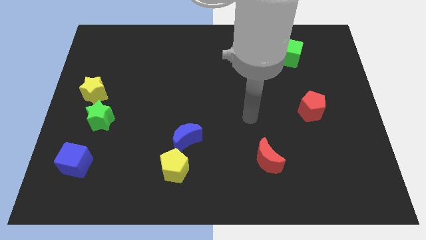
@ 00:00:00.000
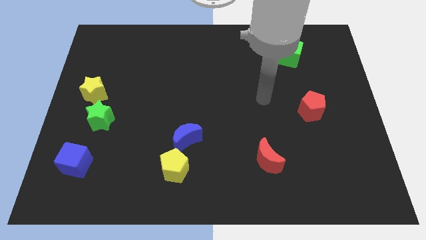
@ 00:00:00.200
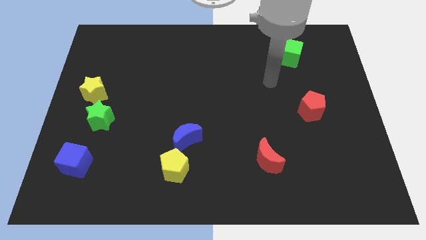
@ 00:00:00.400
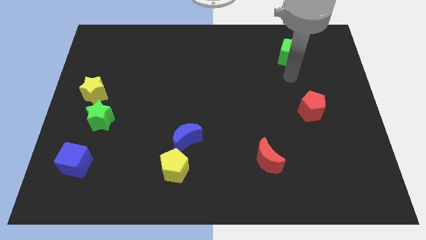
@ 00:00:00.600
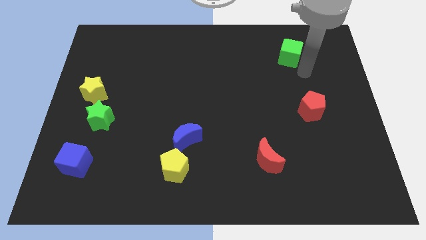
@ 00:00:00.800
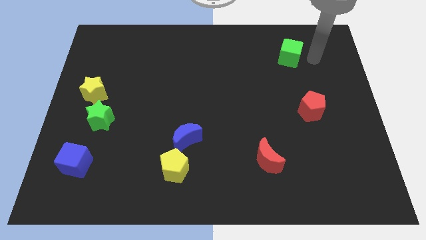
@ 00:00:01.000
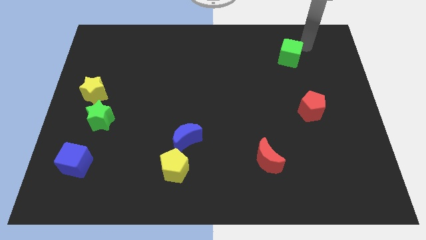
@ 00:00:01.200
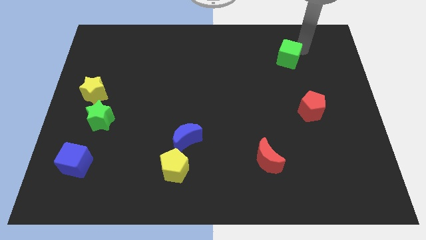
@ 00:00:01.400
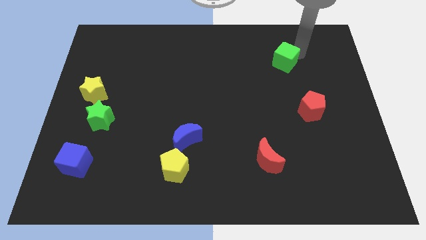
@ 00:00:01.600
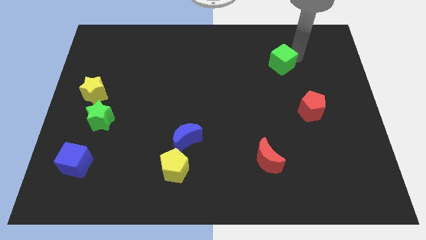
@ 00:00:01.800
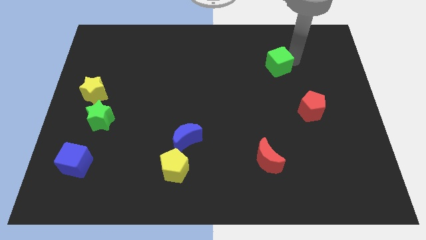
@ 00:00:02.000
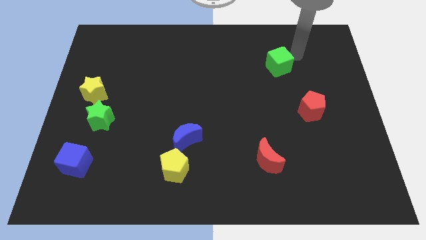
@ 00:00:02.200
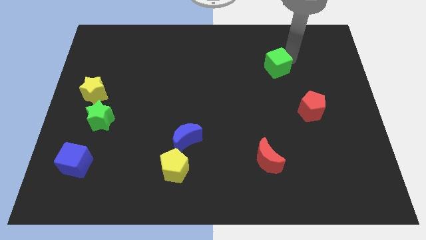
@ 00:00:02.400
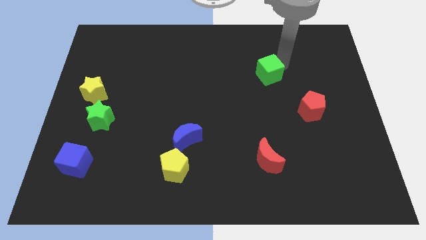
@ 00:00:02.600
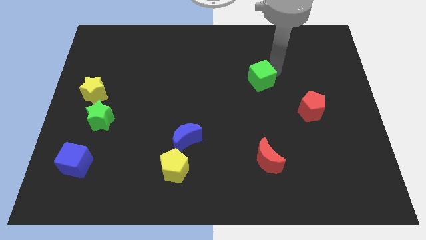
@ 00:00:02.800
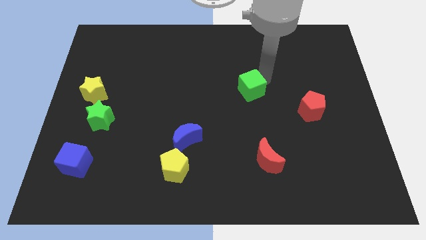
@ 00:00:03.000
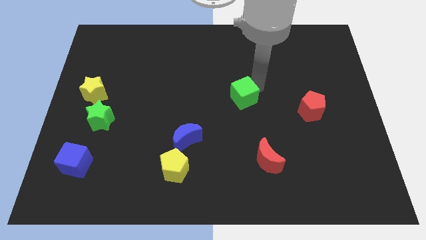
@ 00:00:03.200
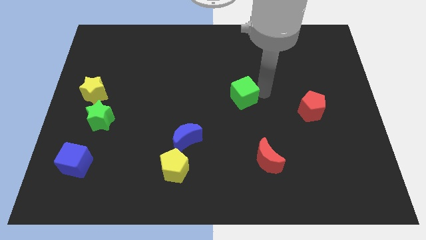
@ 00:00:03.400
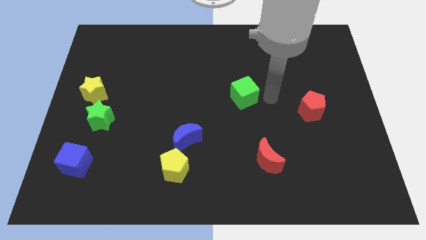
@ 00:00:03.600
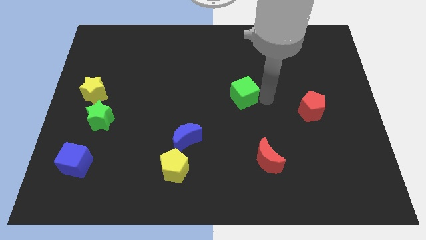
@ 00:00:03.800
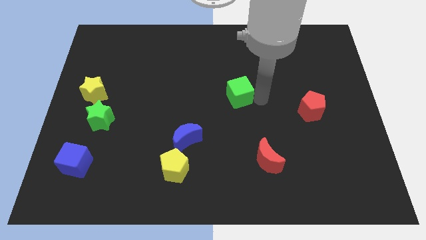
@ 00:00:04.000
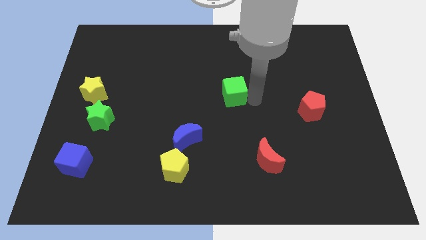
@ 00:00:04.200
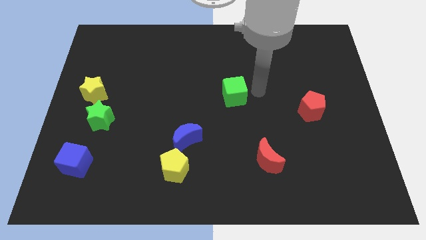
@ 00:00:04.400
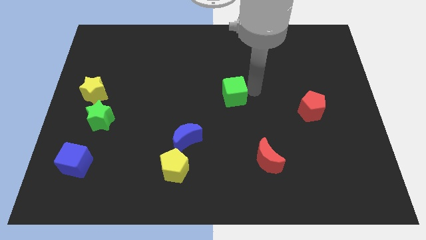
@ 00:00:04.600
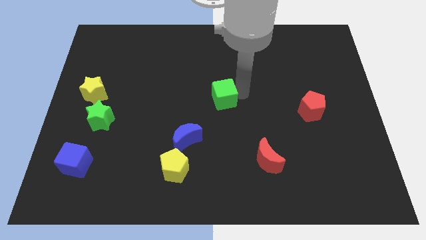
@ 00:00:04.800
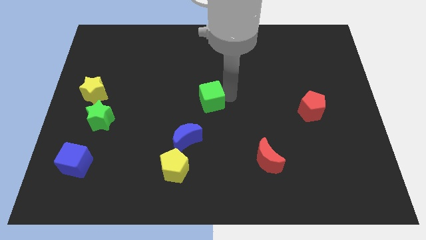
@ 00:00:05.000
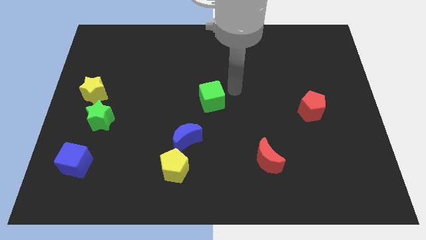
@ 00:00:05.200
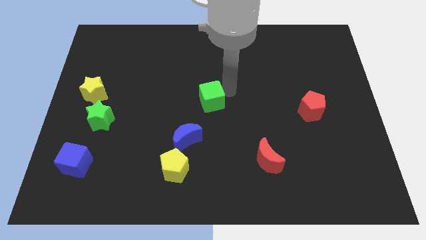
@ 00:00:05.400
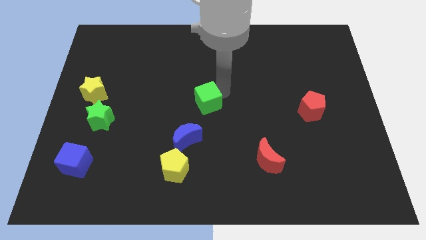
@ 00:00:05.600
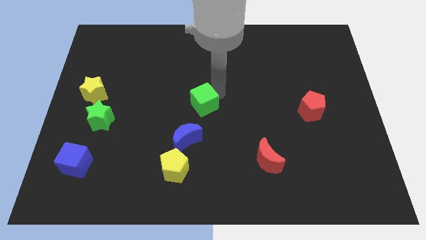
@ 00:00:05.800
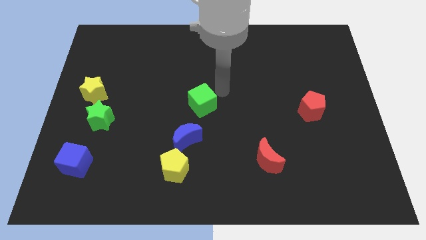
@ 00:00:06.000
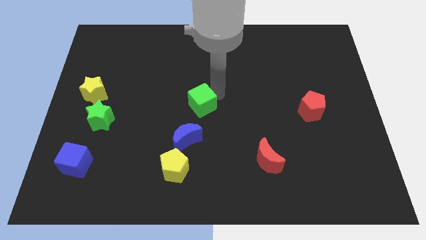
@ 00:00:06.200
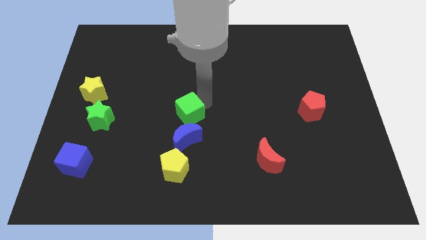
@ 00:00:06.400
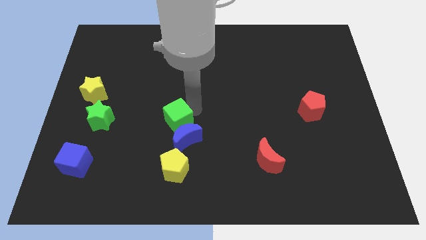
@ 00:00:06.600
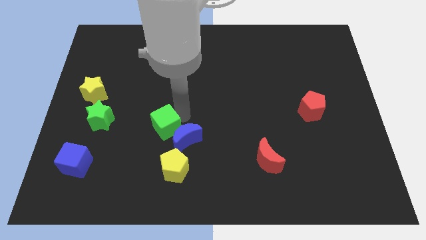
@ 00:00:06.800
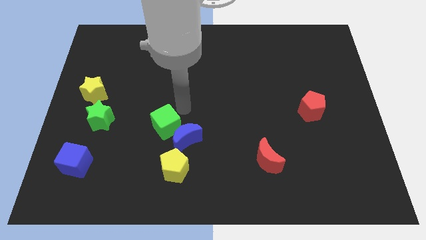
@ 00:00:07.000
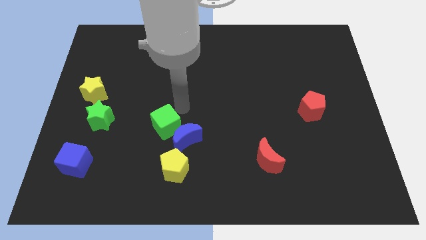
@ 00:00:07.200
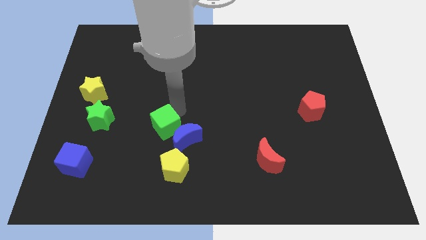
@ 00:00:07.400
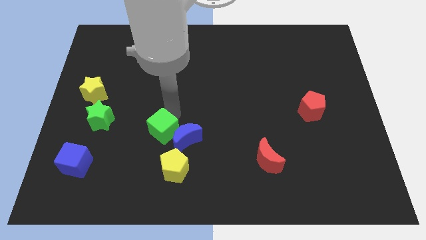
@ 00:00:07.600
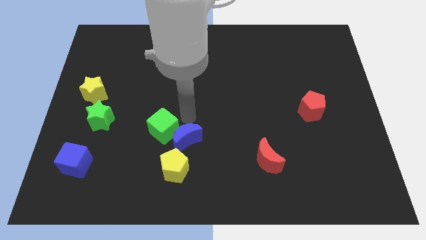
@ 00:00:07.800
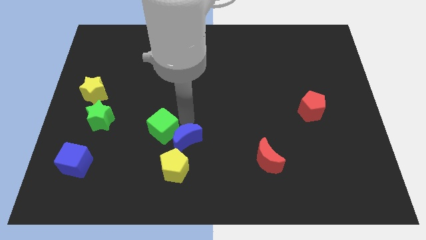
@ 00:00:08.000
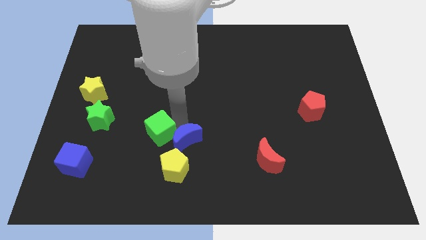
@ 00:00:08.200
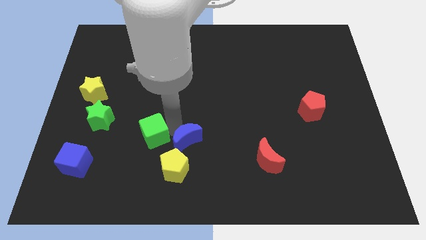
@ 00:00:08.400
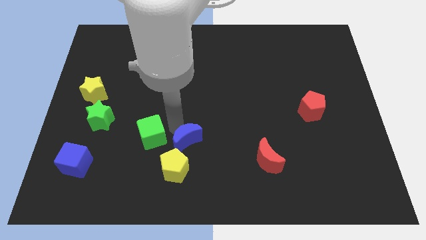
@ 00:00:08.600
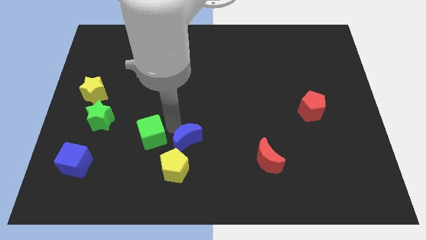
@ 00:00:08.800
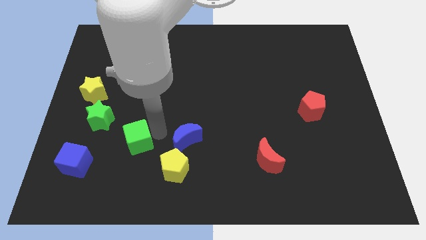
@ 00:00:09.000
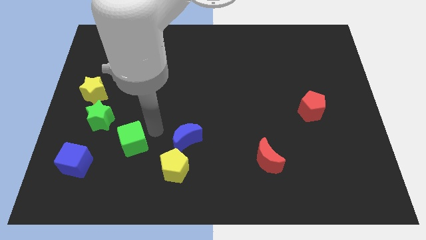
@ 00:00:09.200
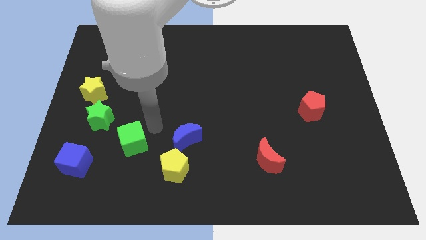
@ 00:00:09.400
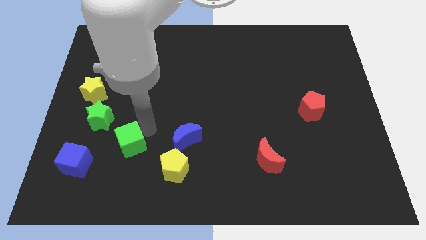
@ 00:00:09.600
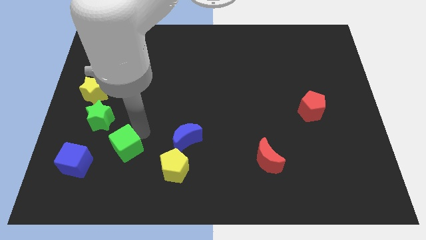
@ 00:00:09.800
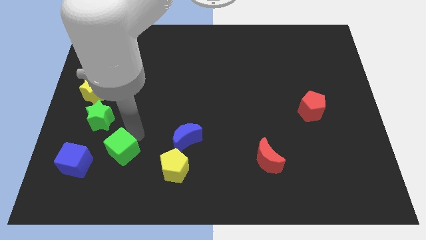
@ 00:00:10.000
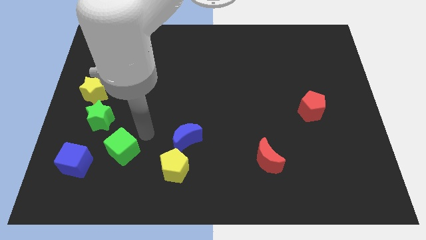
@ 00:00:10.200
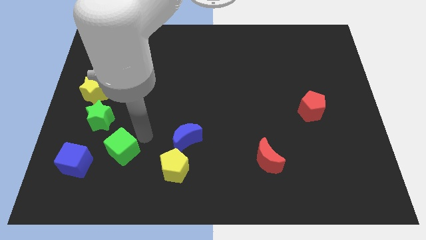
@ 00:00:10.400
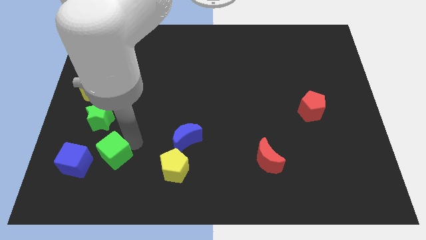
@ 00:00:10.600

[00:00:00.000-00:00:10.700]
move the green cube below the green star

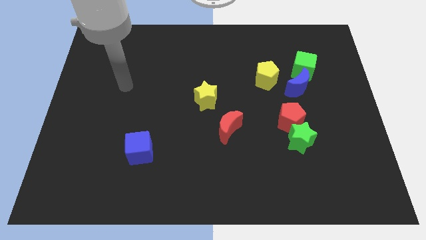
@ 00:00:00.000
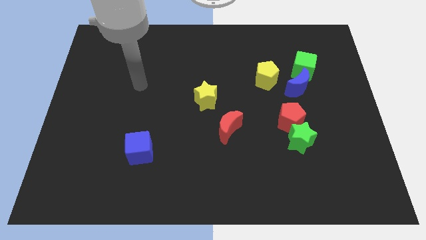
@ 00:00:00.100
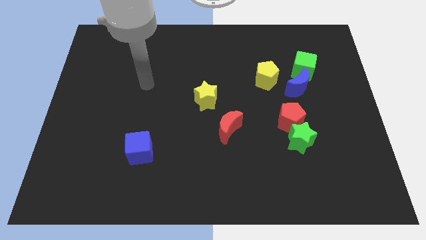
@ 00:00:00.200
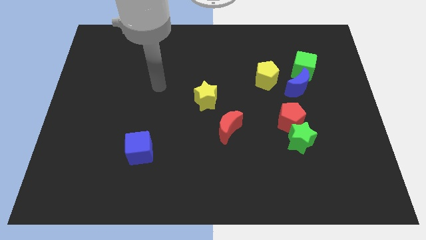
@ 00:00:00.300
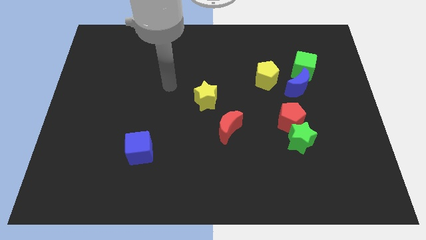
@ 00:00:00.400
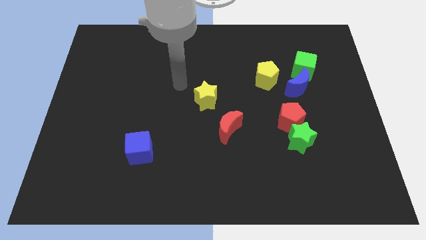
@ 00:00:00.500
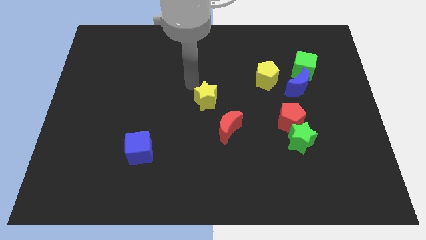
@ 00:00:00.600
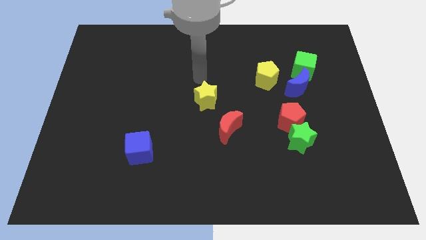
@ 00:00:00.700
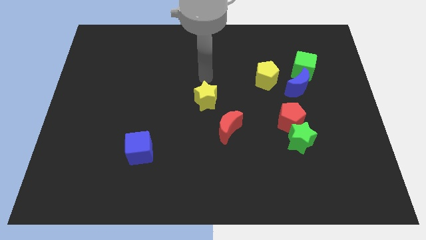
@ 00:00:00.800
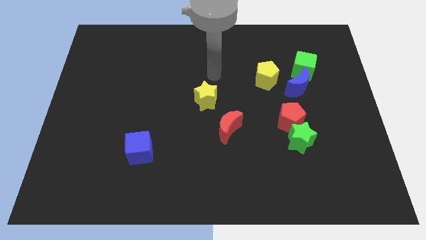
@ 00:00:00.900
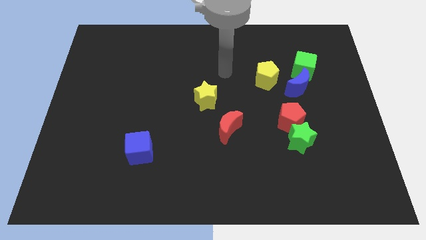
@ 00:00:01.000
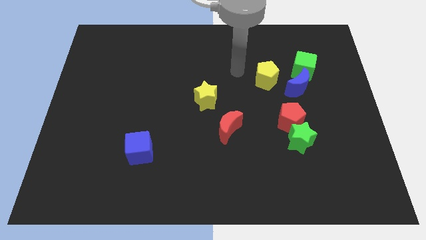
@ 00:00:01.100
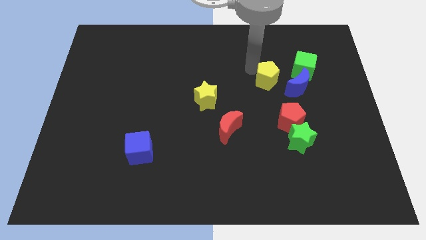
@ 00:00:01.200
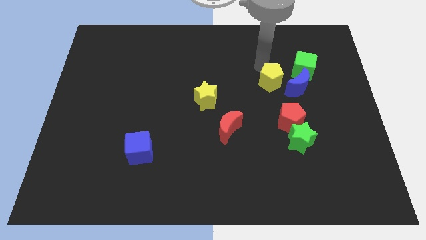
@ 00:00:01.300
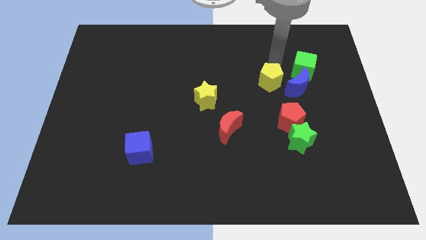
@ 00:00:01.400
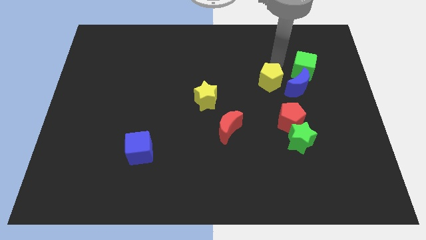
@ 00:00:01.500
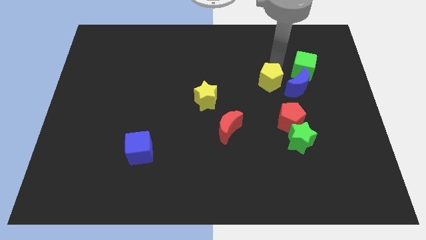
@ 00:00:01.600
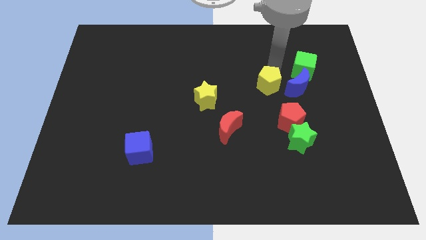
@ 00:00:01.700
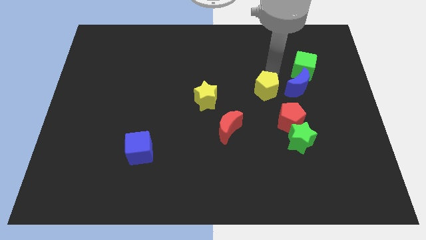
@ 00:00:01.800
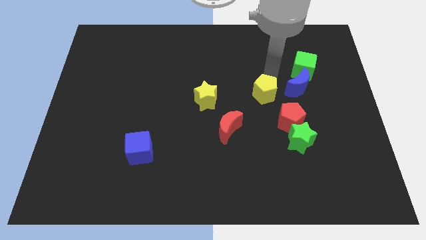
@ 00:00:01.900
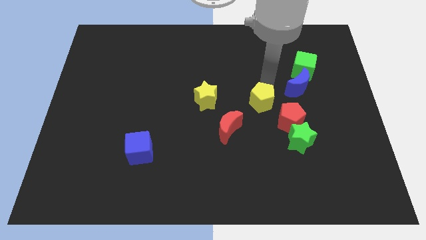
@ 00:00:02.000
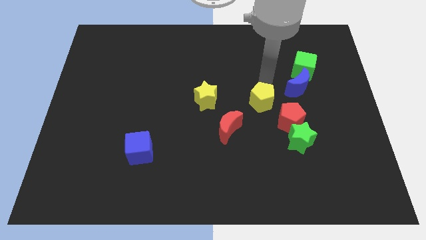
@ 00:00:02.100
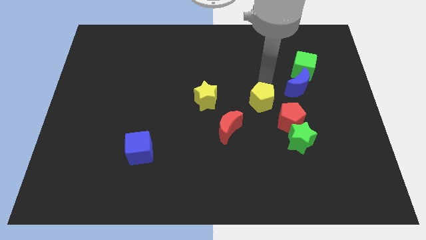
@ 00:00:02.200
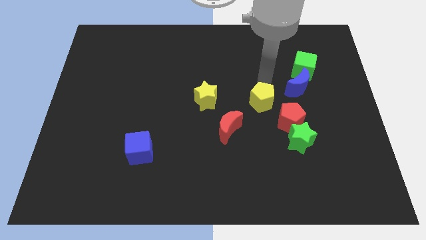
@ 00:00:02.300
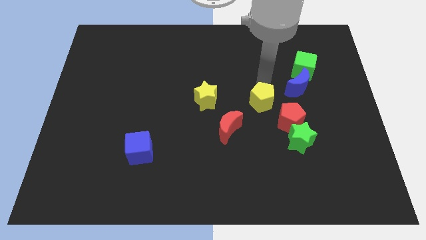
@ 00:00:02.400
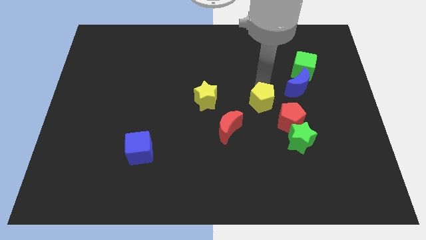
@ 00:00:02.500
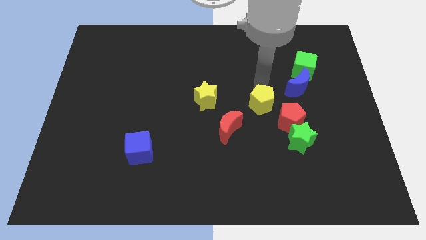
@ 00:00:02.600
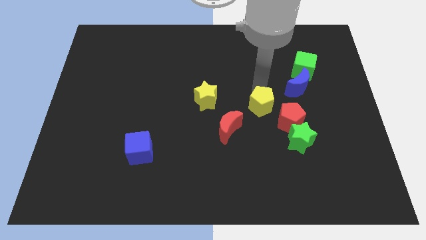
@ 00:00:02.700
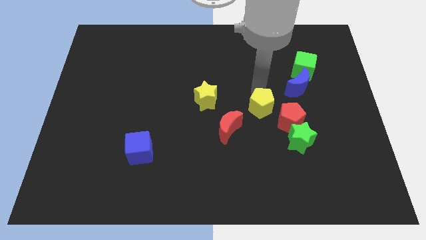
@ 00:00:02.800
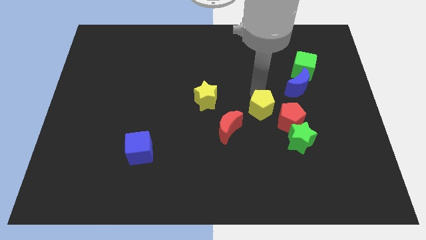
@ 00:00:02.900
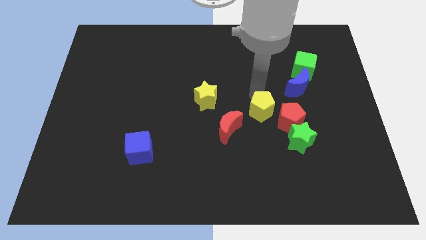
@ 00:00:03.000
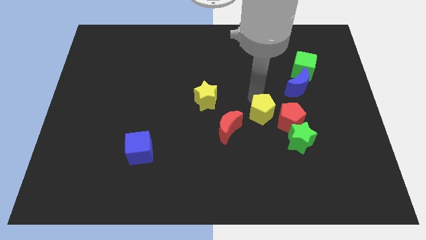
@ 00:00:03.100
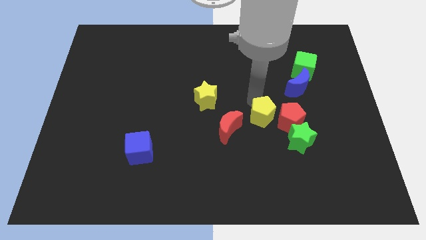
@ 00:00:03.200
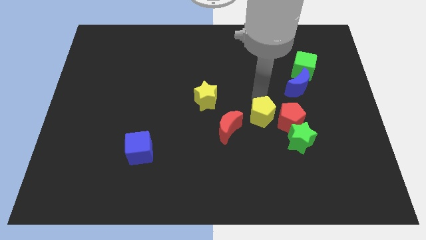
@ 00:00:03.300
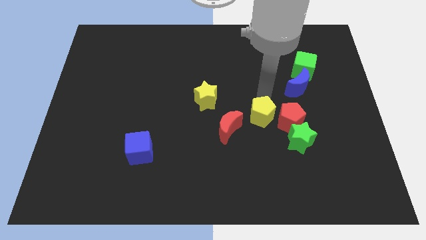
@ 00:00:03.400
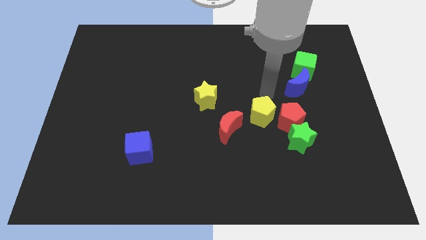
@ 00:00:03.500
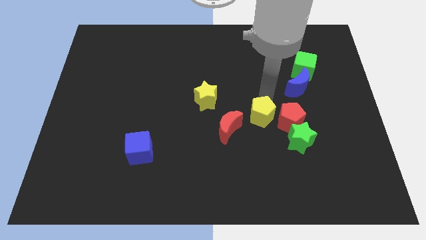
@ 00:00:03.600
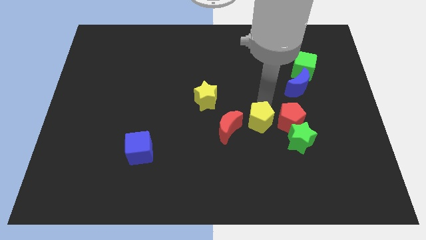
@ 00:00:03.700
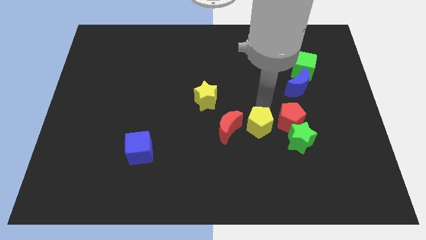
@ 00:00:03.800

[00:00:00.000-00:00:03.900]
push the yellow pentagon to the left side of the green star
